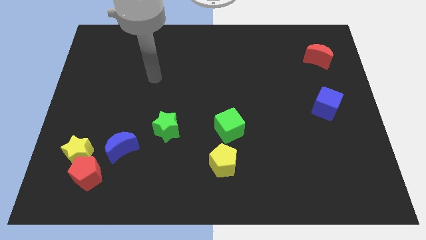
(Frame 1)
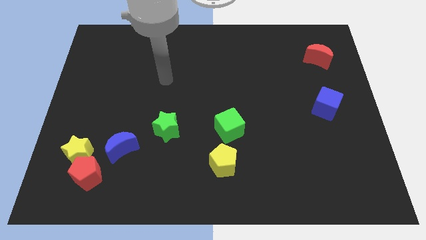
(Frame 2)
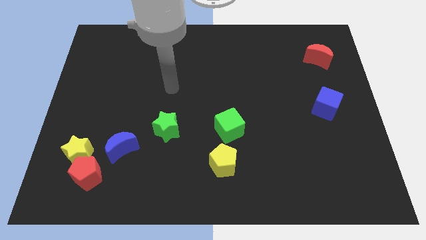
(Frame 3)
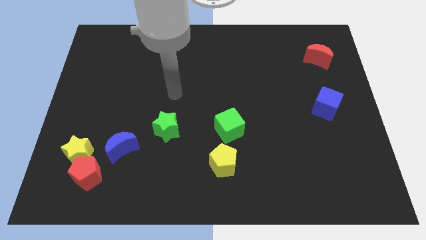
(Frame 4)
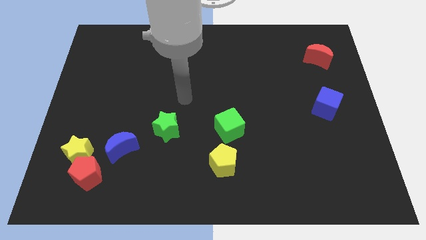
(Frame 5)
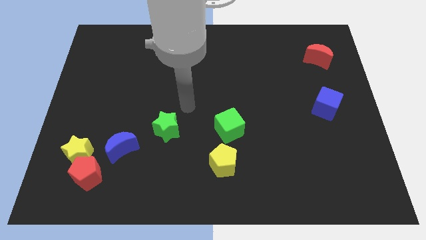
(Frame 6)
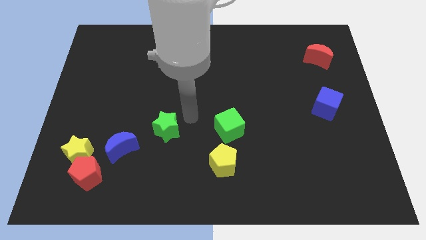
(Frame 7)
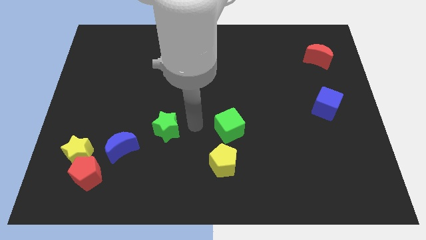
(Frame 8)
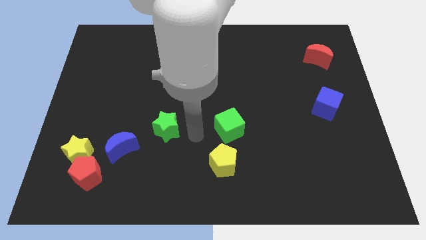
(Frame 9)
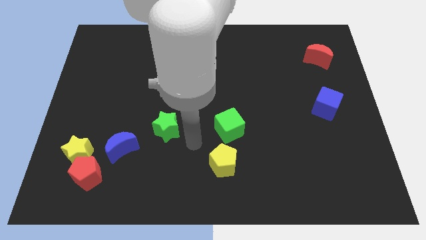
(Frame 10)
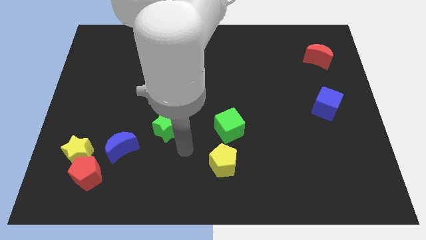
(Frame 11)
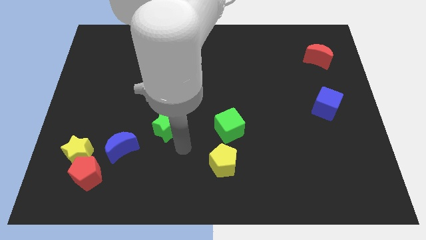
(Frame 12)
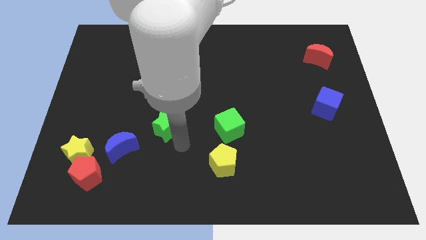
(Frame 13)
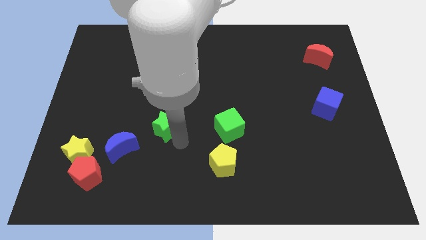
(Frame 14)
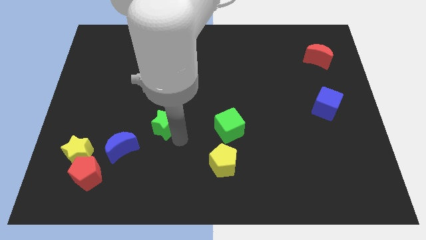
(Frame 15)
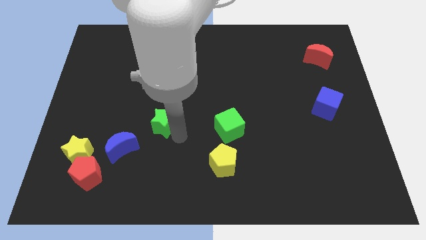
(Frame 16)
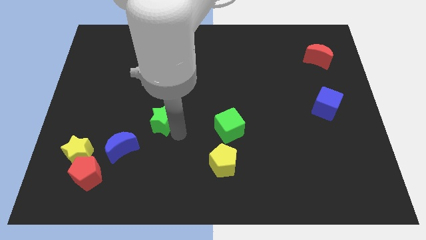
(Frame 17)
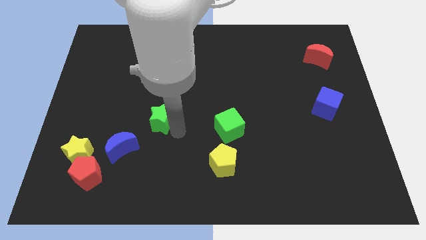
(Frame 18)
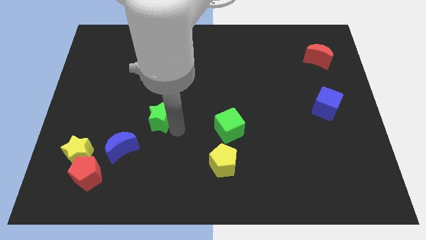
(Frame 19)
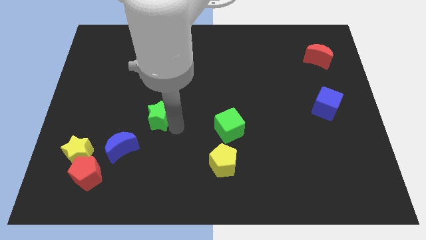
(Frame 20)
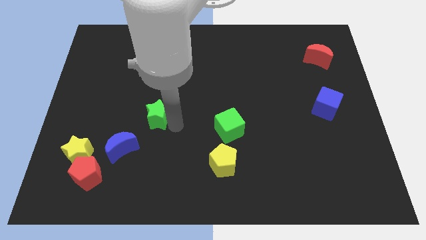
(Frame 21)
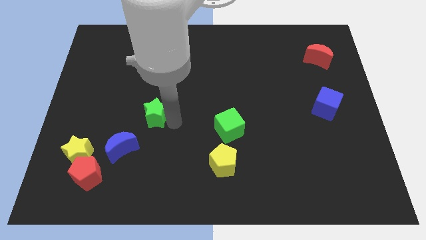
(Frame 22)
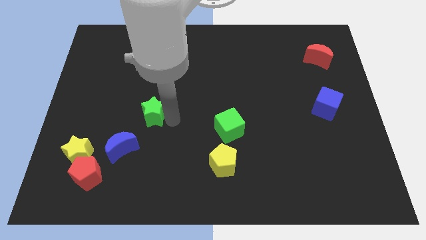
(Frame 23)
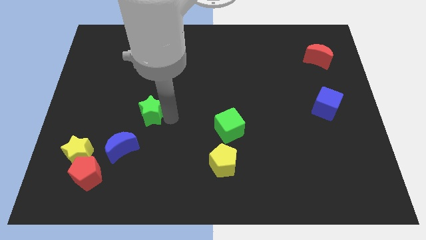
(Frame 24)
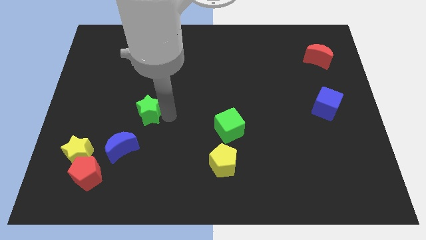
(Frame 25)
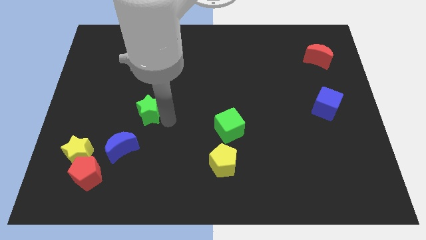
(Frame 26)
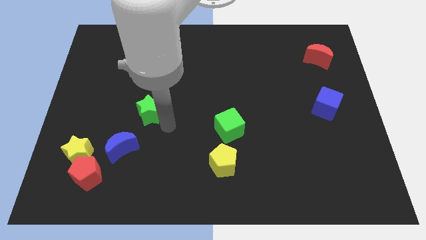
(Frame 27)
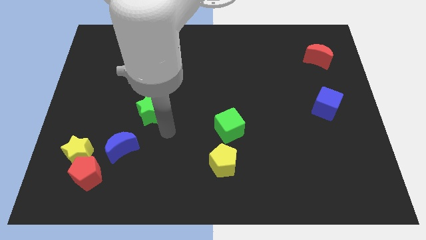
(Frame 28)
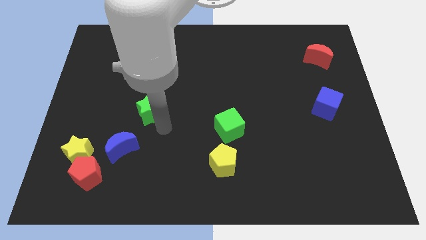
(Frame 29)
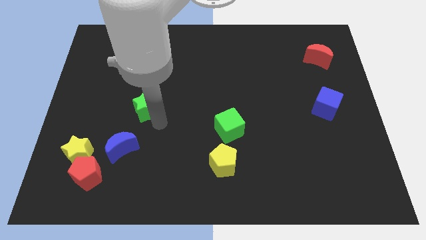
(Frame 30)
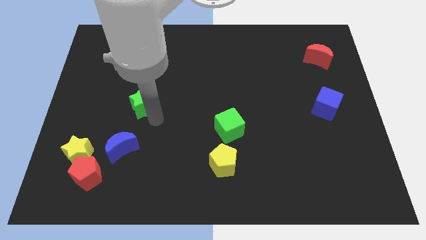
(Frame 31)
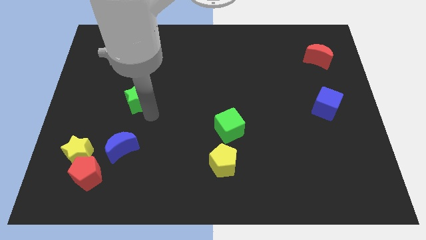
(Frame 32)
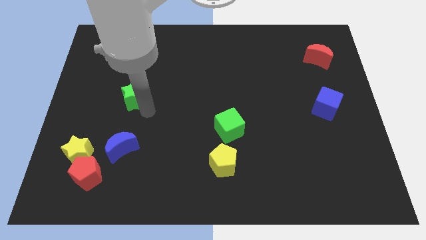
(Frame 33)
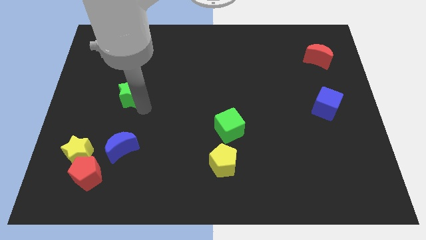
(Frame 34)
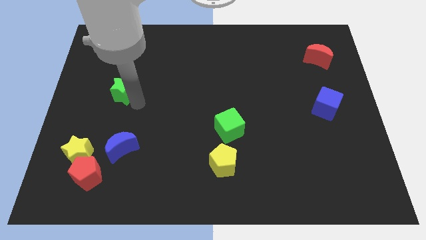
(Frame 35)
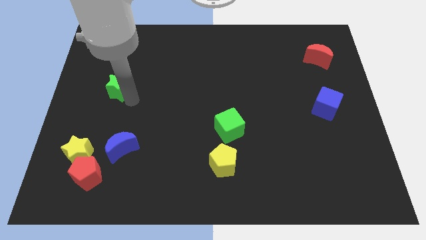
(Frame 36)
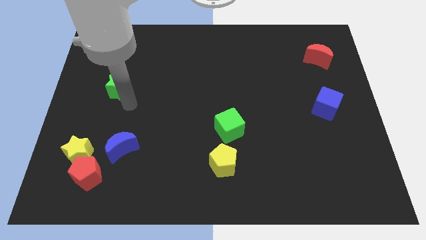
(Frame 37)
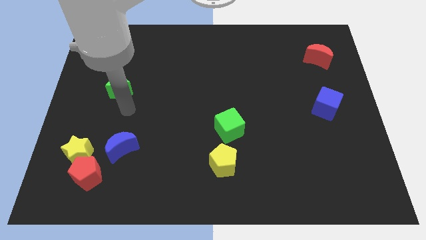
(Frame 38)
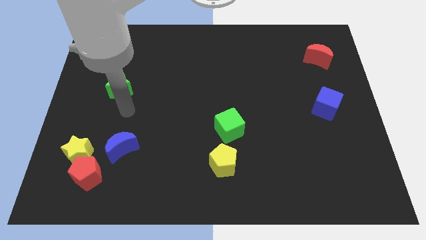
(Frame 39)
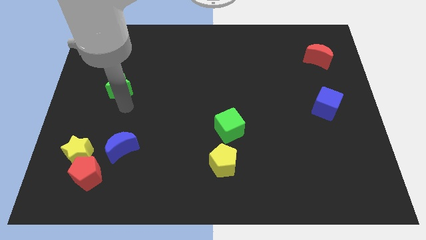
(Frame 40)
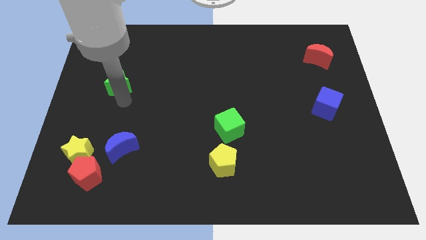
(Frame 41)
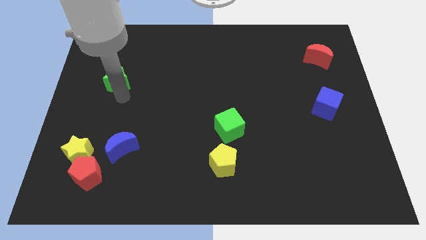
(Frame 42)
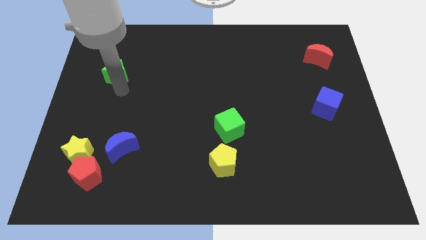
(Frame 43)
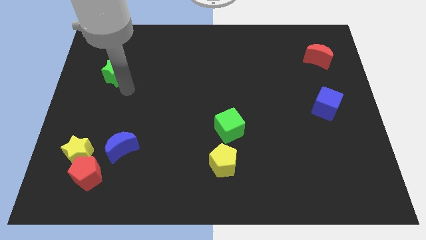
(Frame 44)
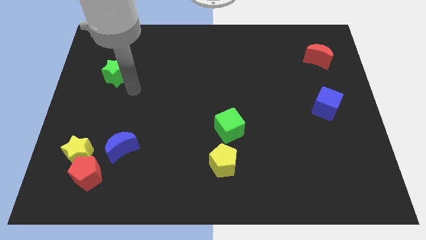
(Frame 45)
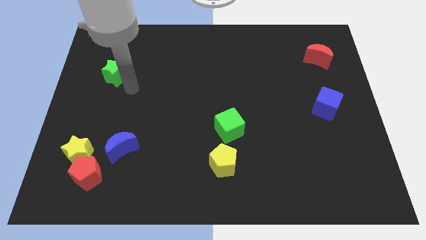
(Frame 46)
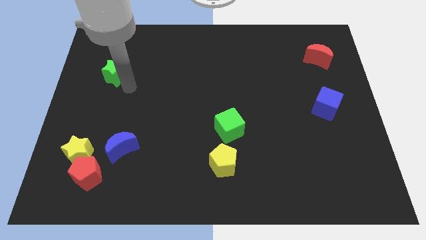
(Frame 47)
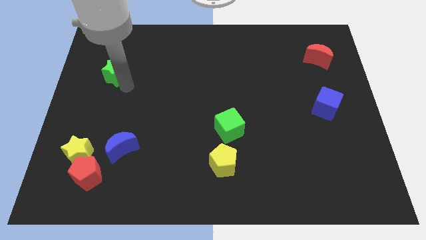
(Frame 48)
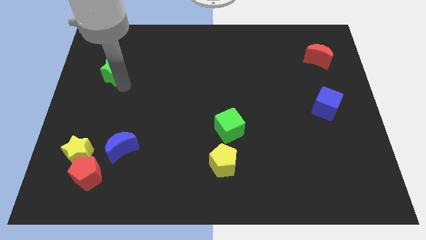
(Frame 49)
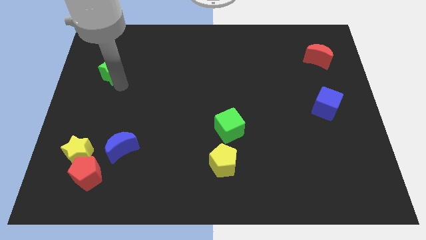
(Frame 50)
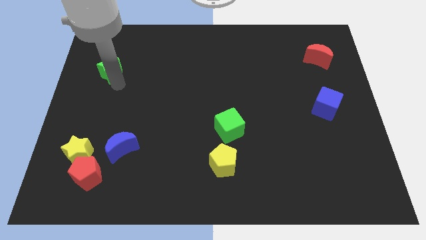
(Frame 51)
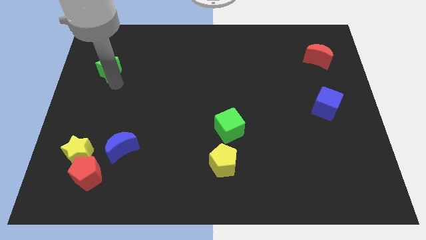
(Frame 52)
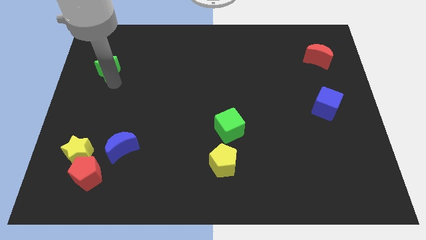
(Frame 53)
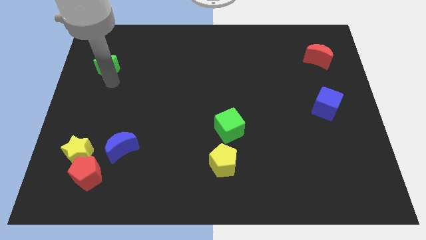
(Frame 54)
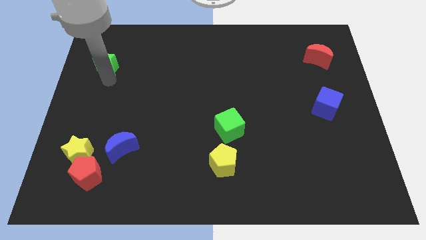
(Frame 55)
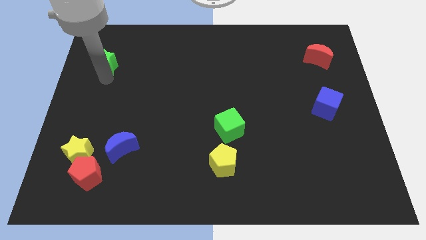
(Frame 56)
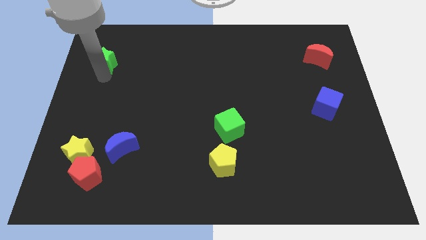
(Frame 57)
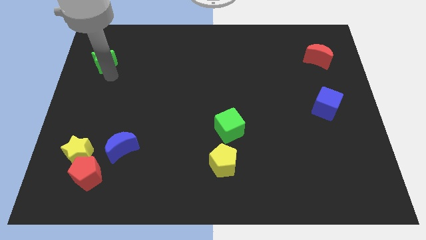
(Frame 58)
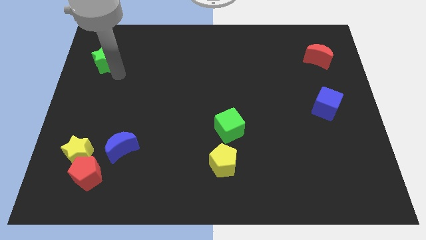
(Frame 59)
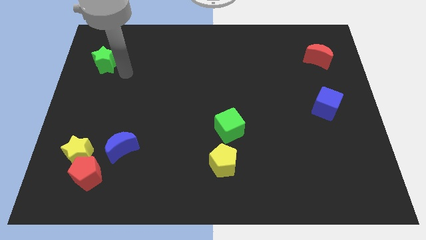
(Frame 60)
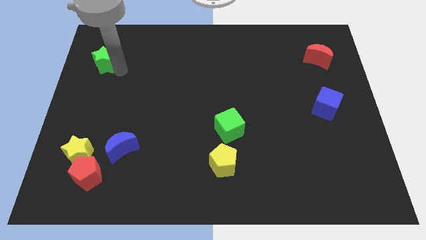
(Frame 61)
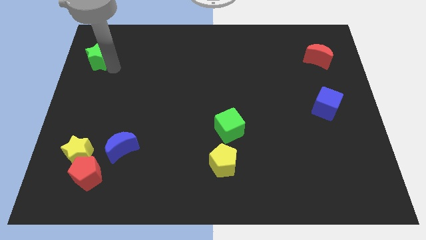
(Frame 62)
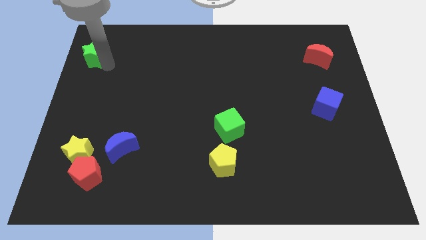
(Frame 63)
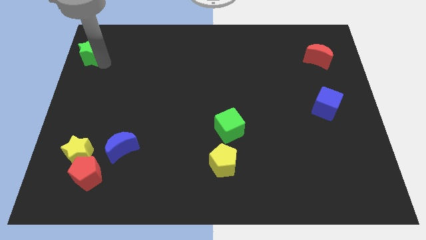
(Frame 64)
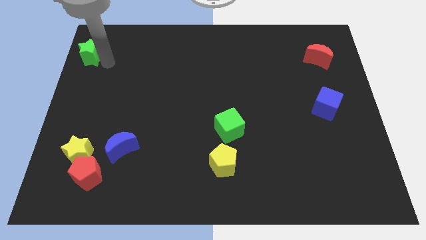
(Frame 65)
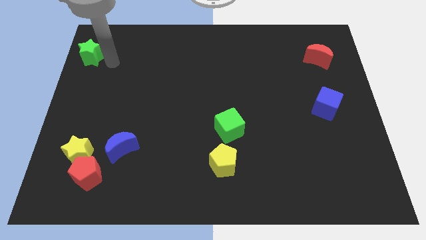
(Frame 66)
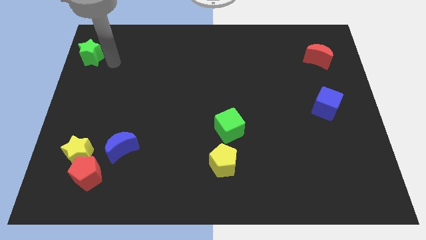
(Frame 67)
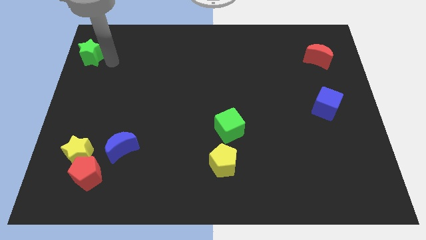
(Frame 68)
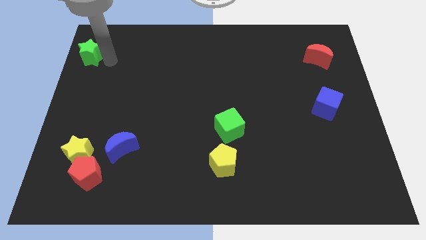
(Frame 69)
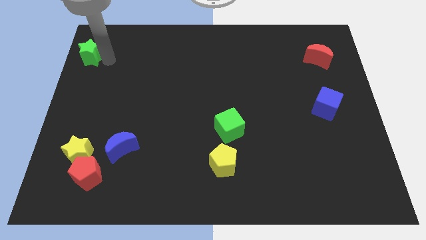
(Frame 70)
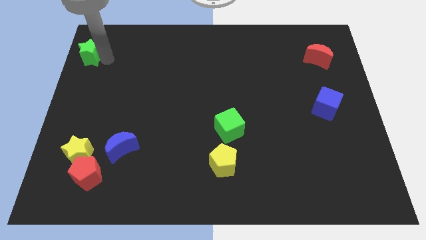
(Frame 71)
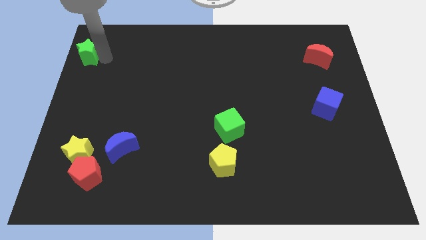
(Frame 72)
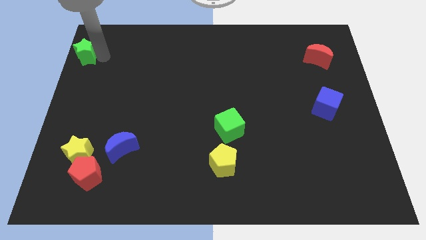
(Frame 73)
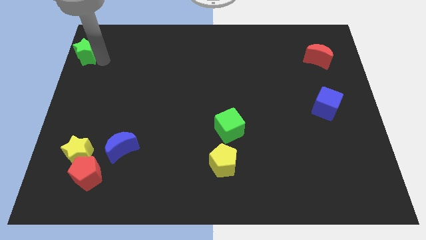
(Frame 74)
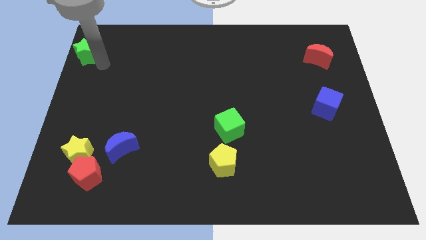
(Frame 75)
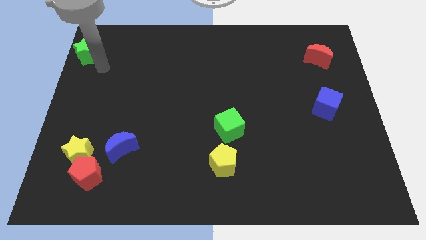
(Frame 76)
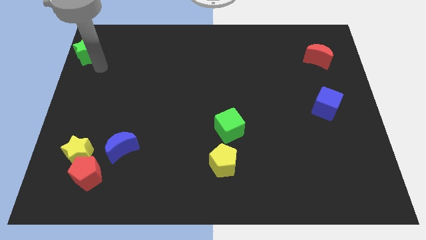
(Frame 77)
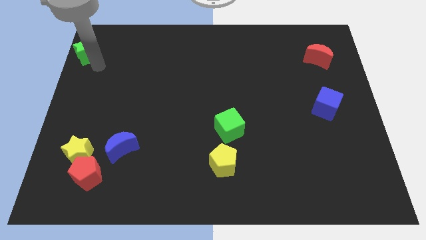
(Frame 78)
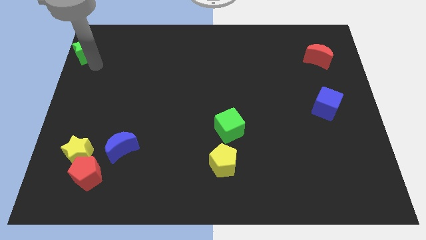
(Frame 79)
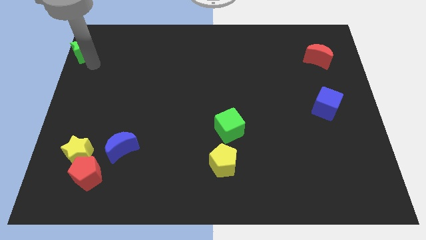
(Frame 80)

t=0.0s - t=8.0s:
push the green star to the top left corner
